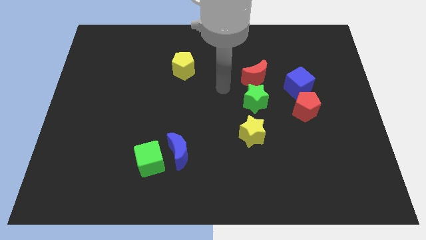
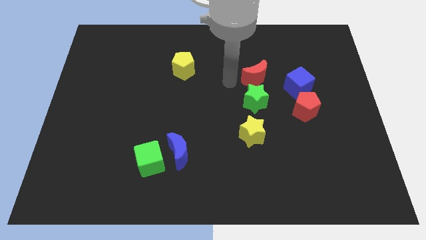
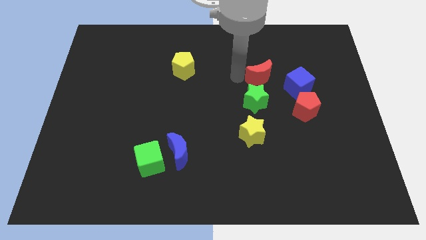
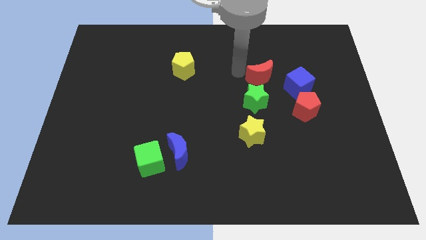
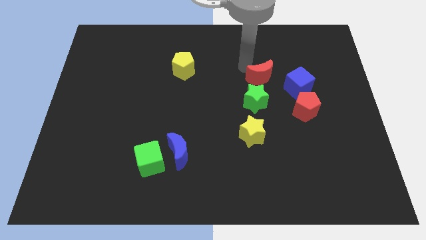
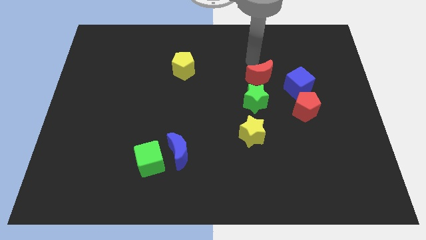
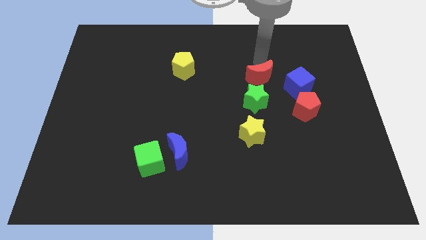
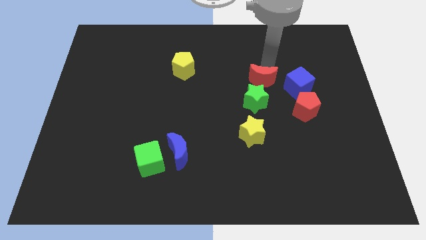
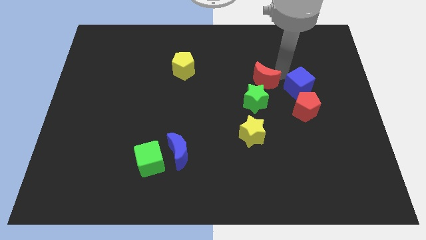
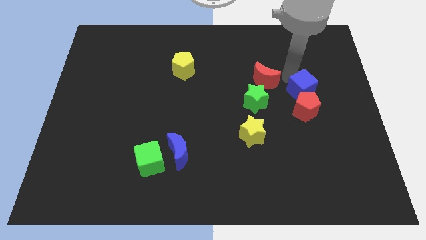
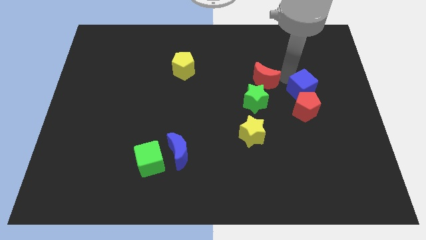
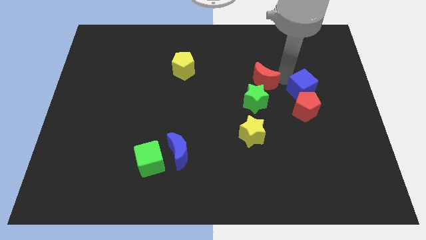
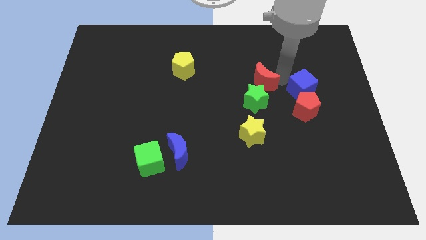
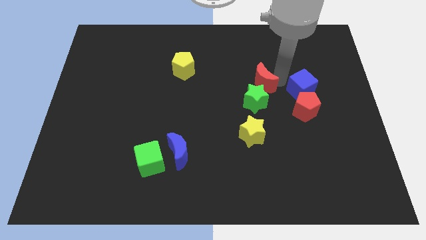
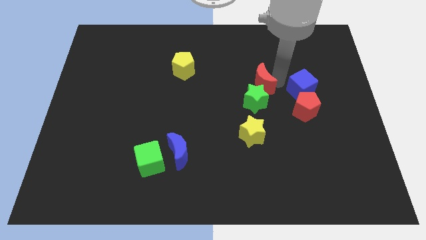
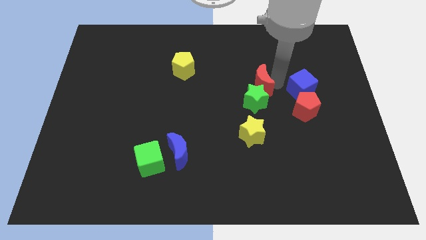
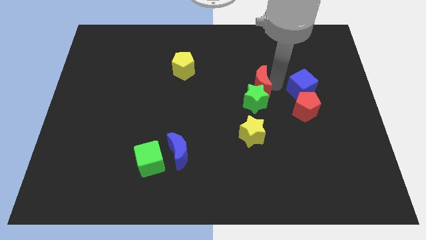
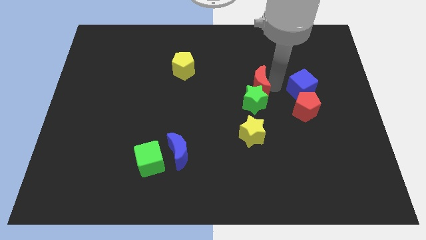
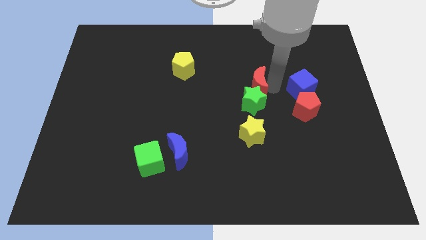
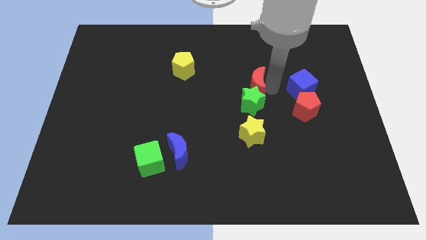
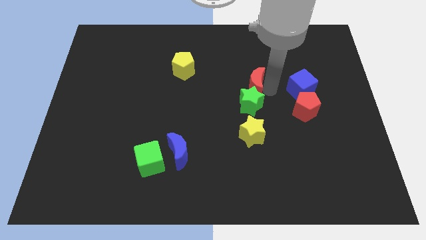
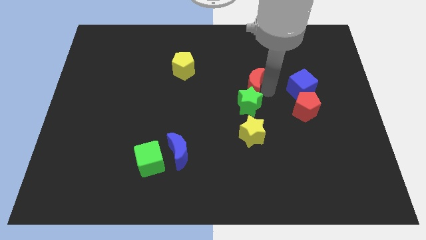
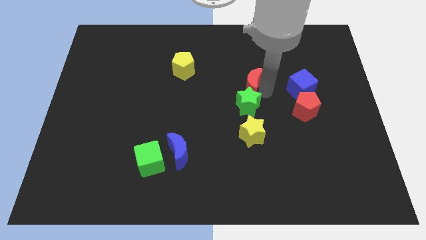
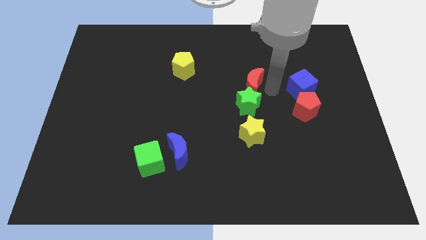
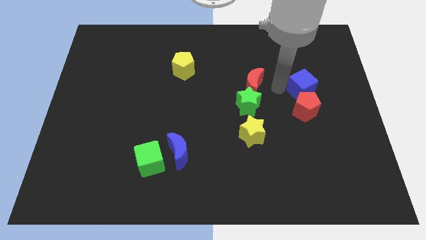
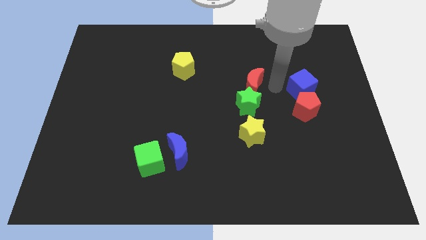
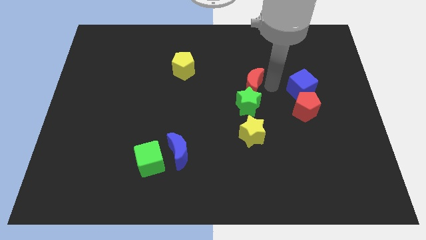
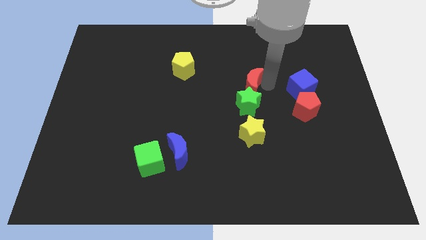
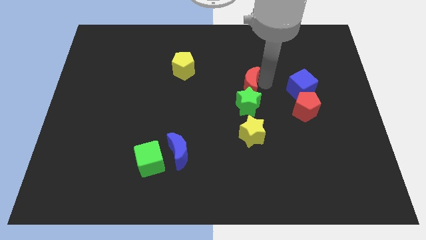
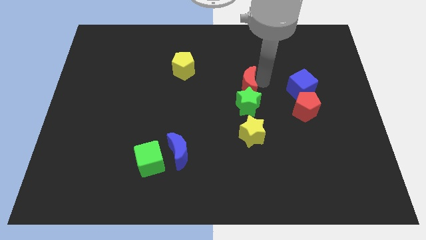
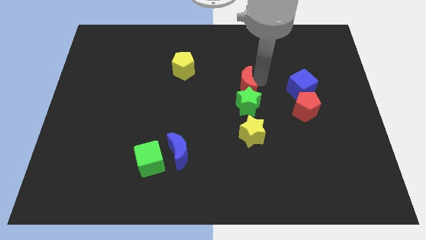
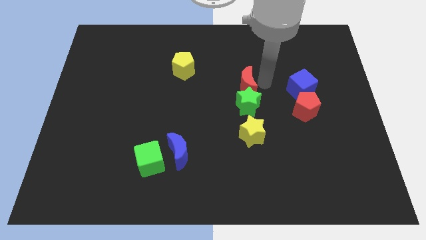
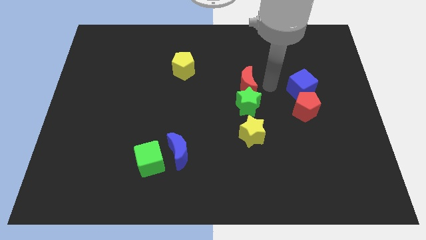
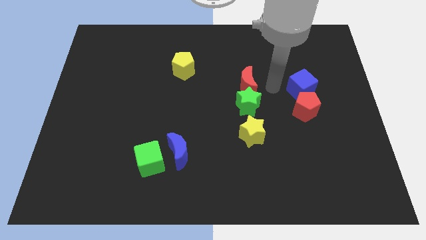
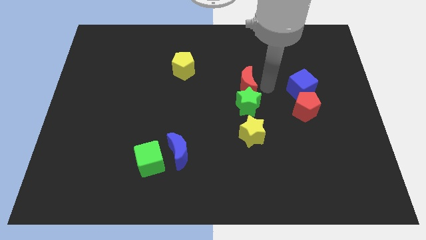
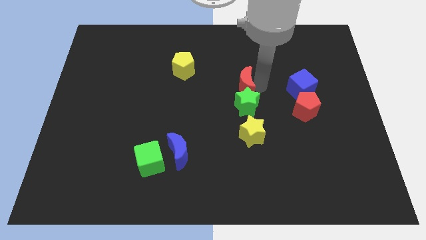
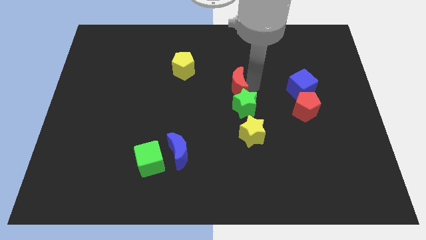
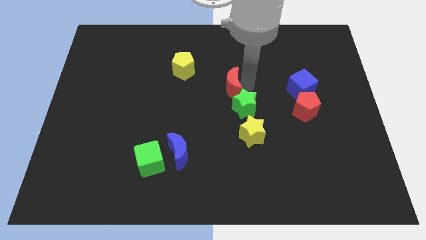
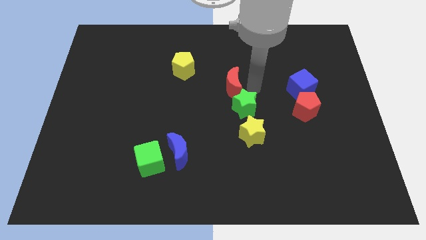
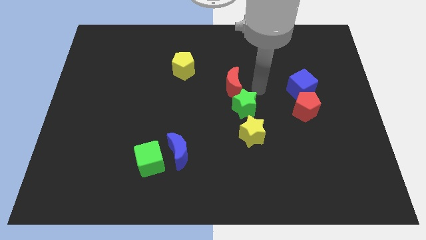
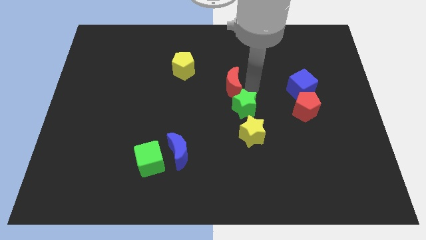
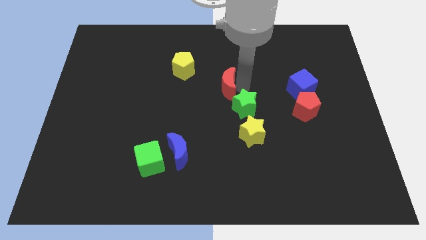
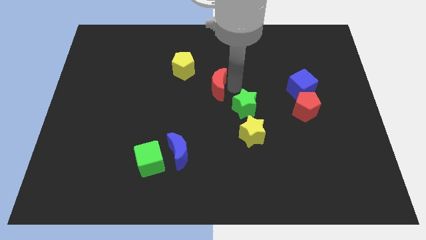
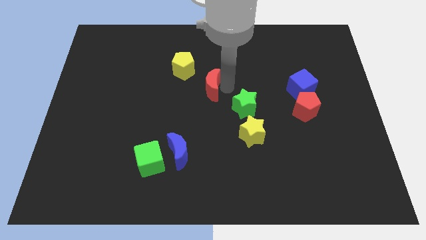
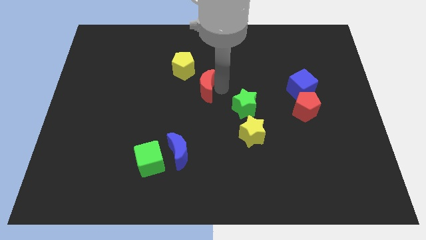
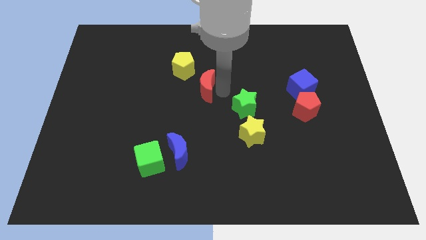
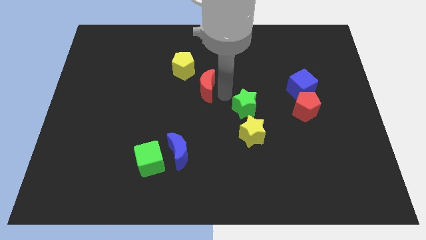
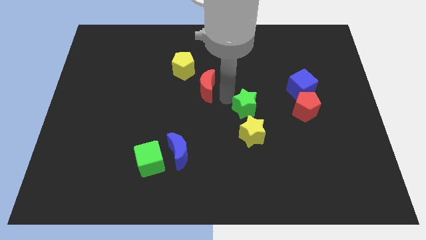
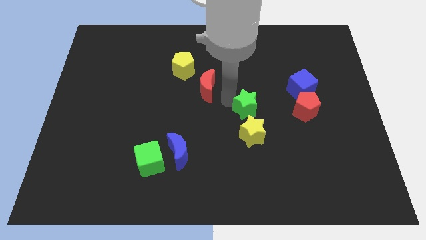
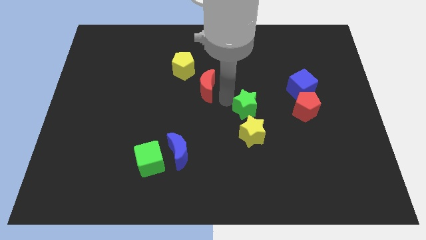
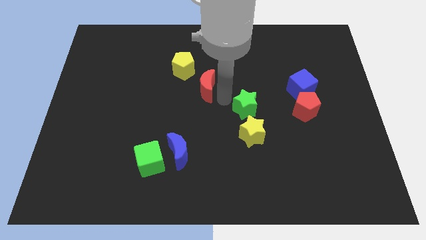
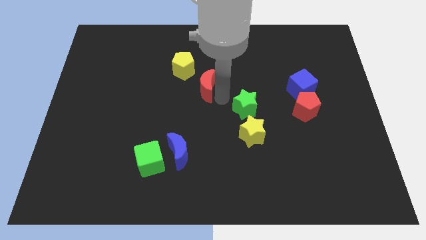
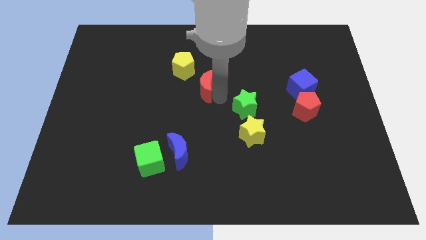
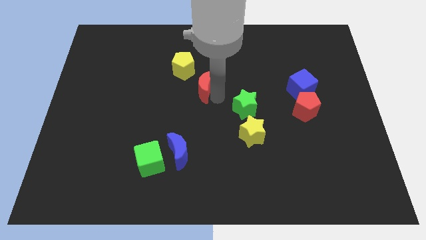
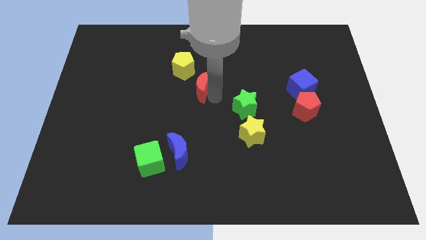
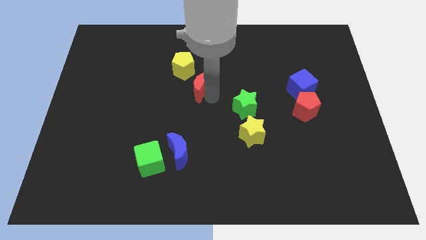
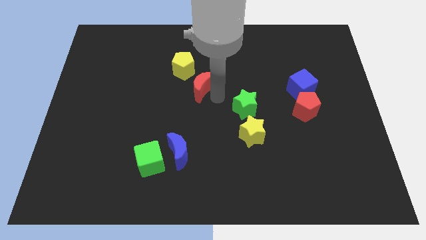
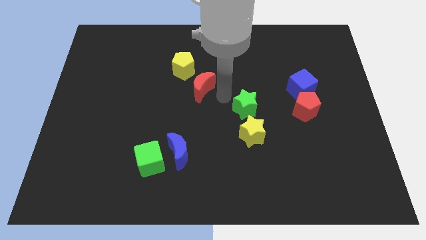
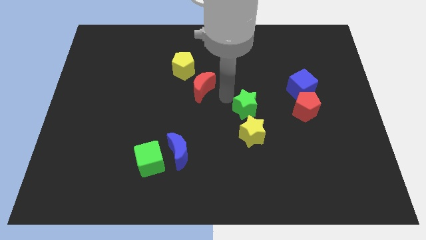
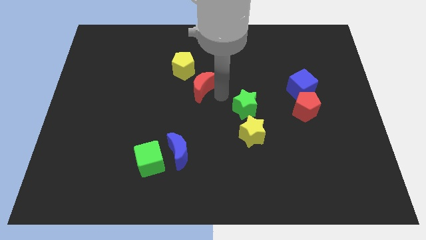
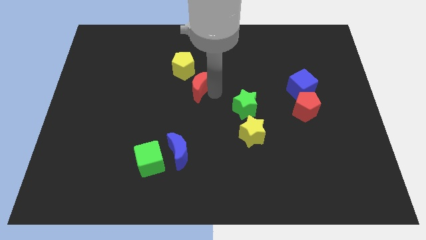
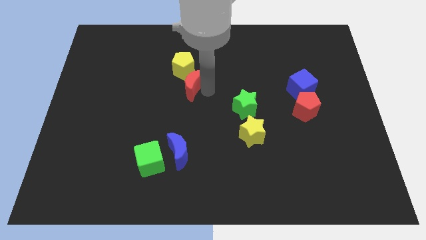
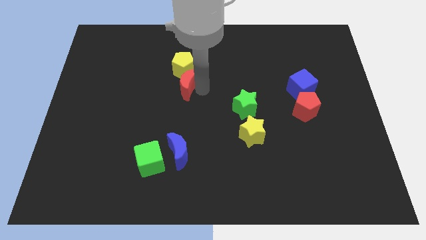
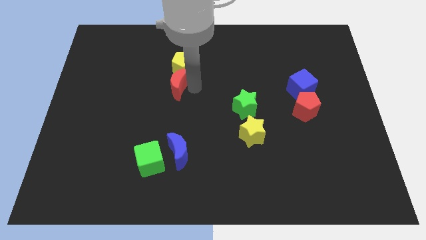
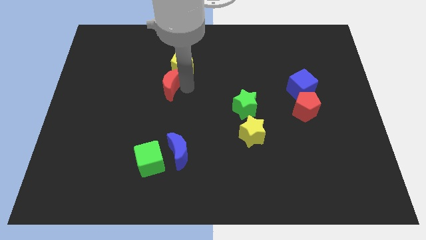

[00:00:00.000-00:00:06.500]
move the red moon left

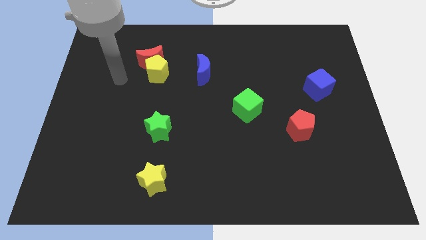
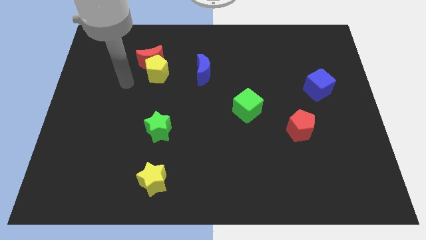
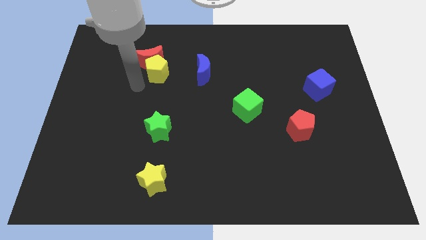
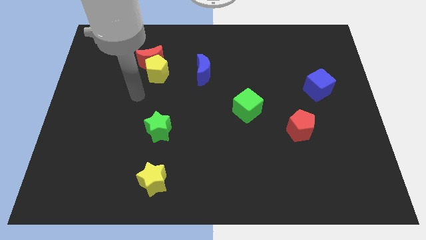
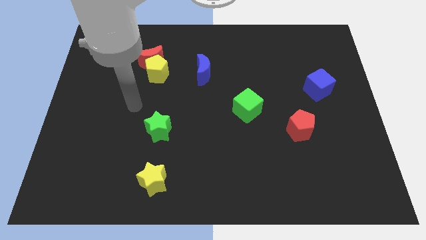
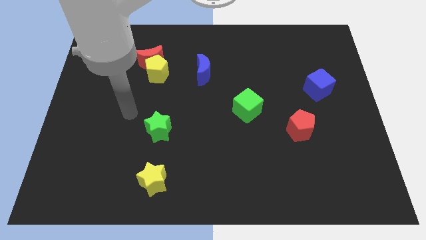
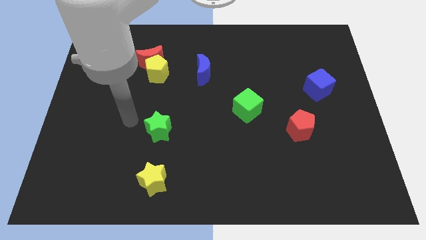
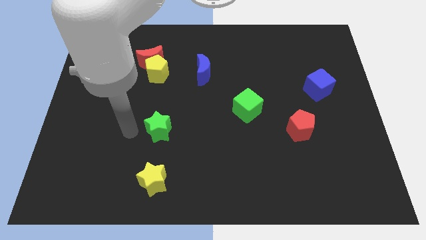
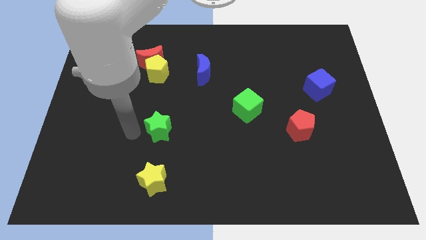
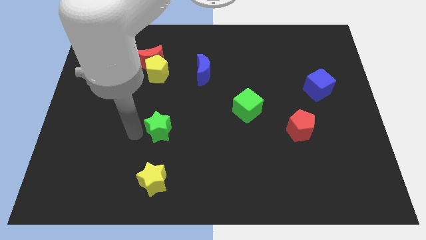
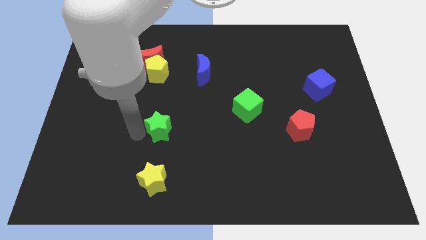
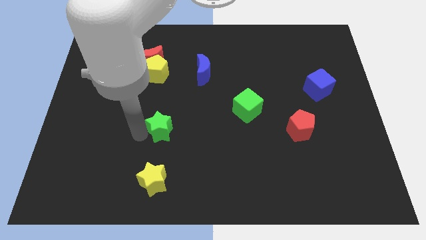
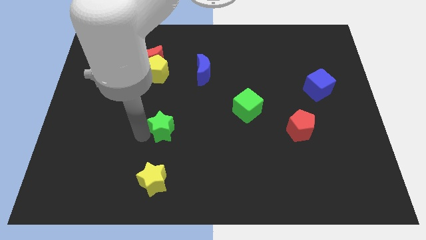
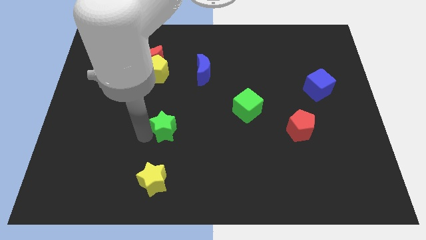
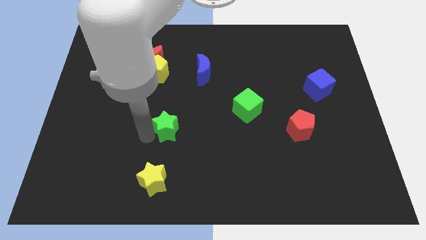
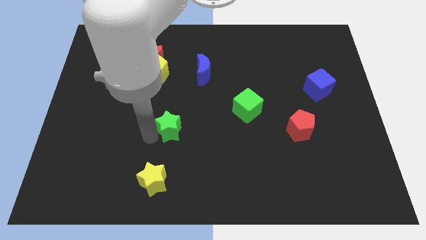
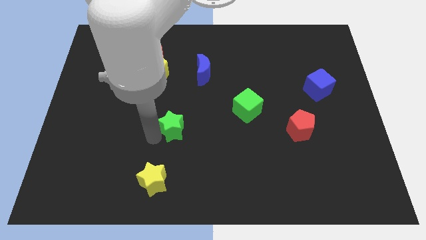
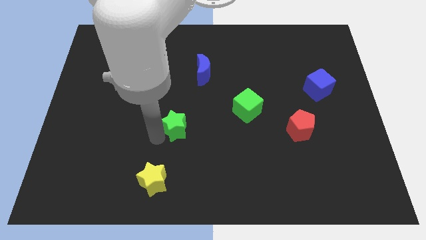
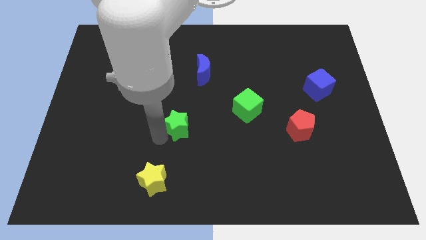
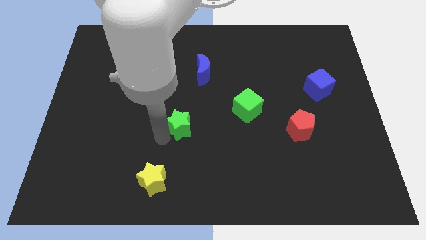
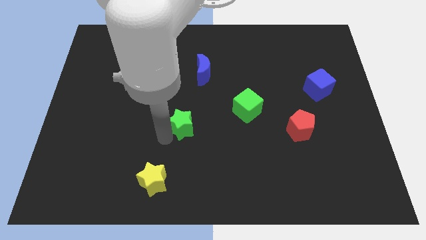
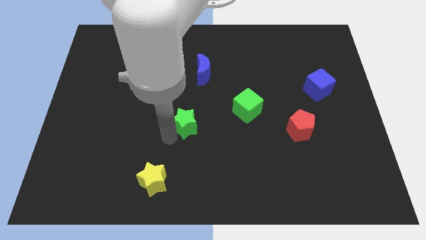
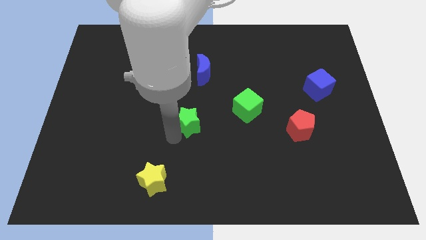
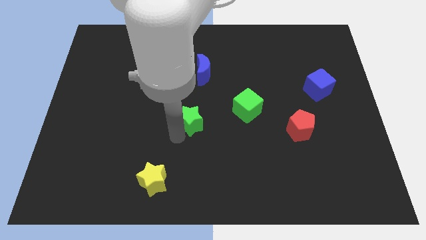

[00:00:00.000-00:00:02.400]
push the green star somewhat right
